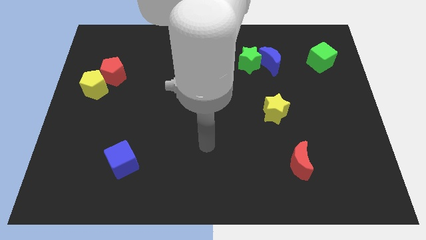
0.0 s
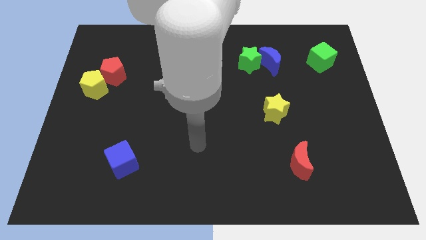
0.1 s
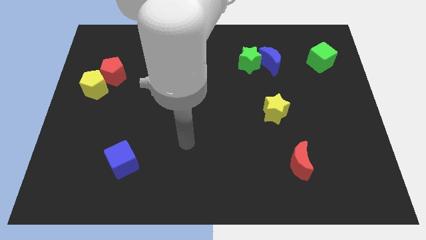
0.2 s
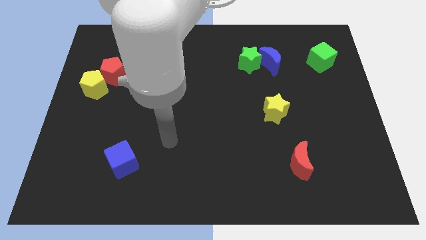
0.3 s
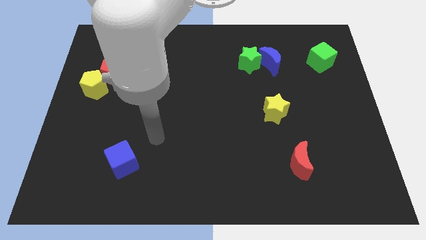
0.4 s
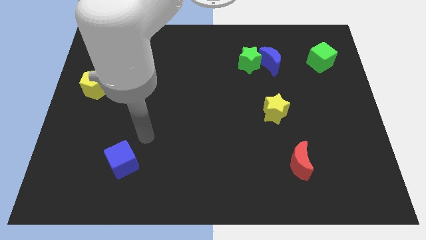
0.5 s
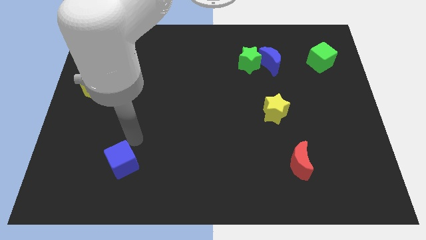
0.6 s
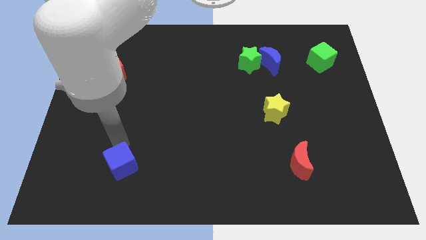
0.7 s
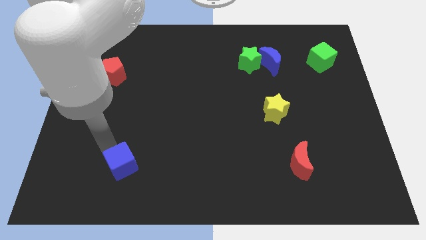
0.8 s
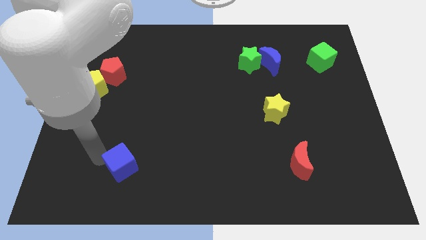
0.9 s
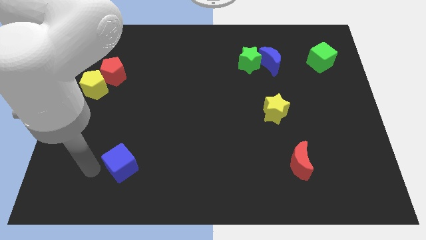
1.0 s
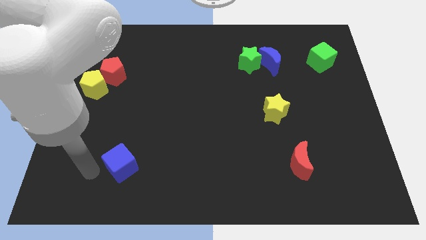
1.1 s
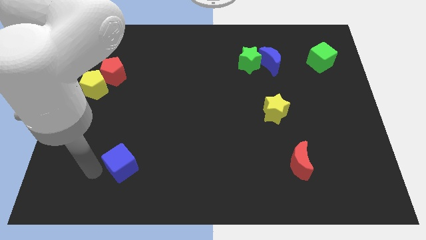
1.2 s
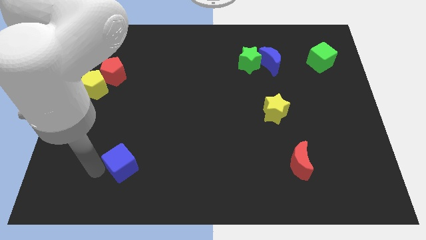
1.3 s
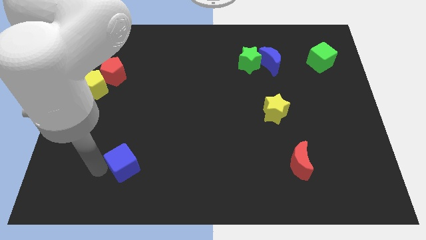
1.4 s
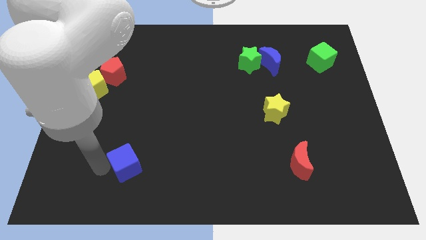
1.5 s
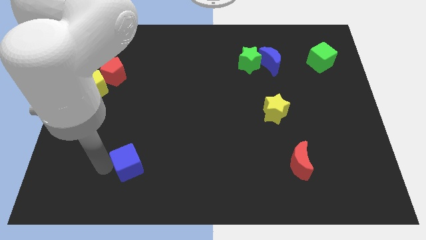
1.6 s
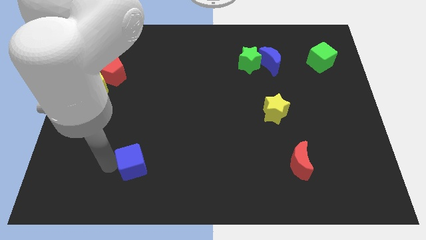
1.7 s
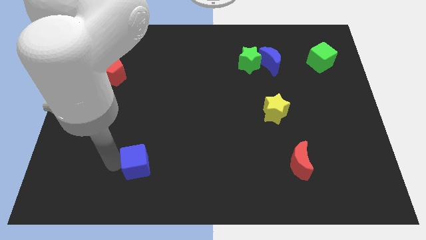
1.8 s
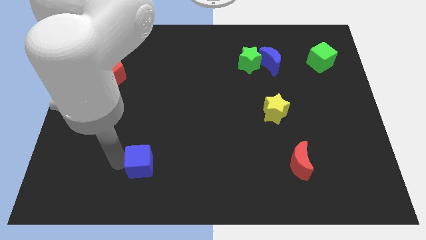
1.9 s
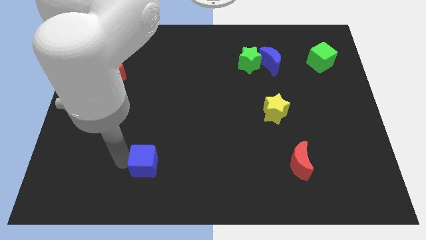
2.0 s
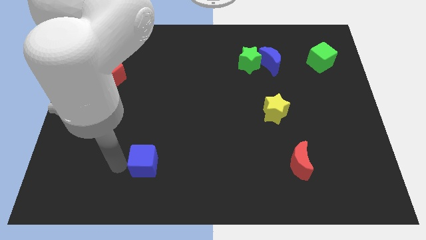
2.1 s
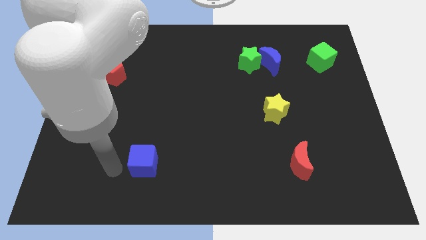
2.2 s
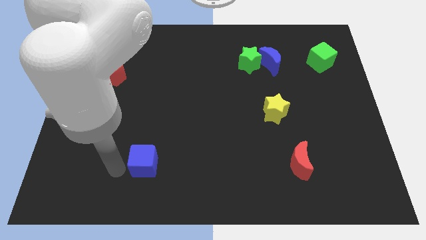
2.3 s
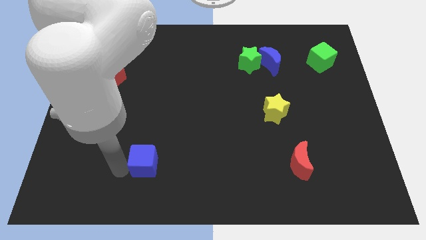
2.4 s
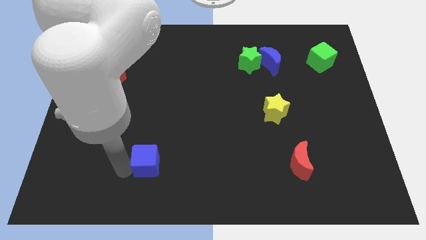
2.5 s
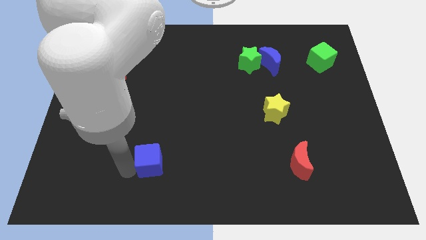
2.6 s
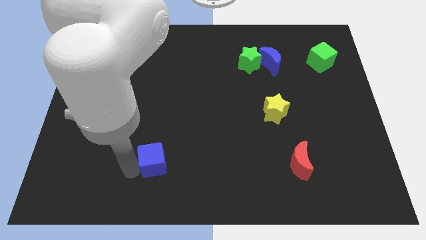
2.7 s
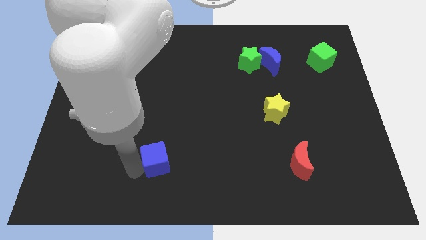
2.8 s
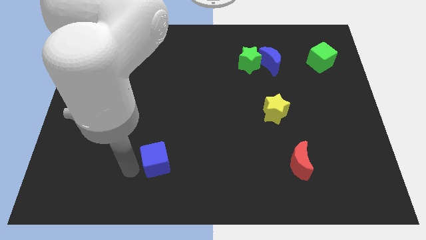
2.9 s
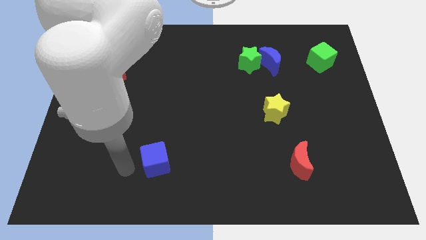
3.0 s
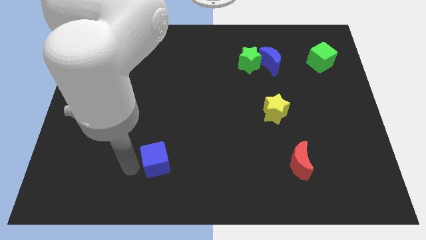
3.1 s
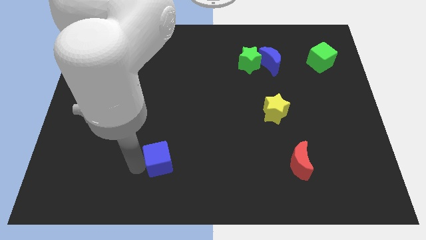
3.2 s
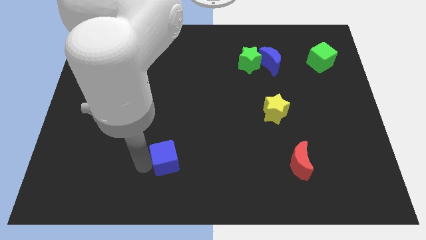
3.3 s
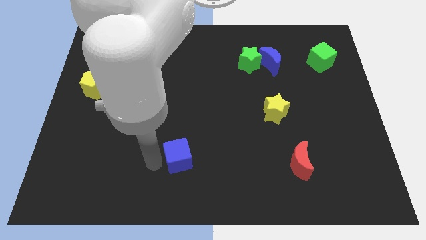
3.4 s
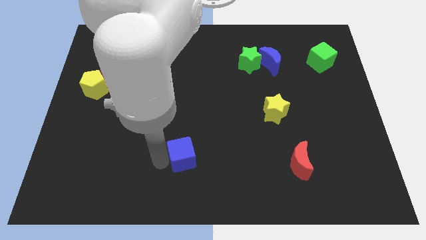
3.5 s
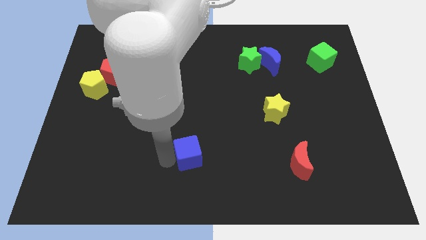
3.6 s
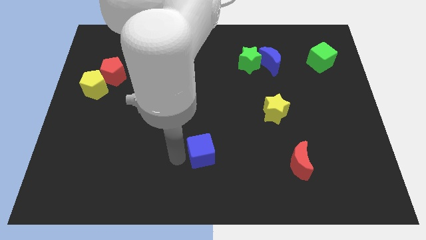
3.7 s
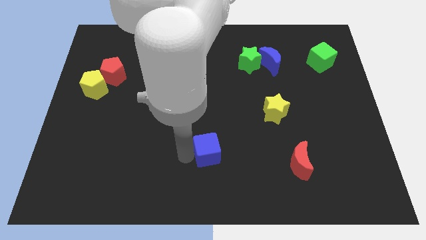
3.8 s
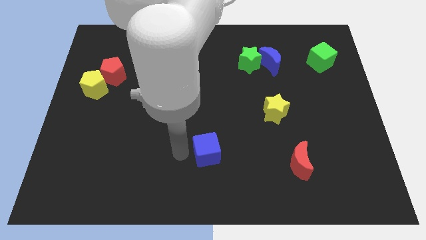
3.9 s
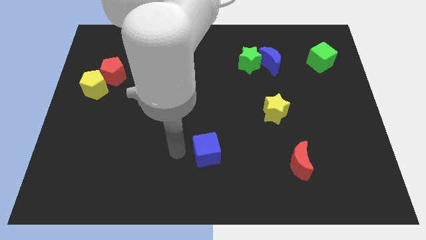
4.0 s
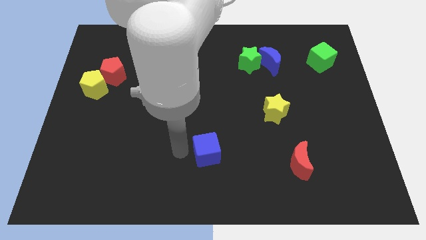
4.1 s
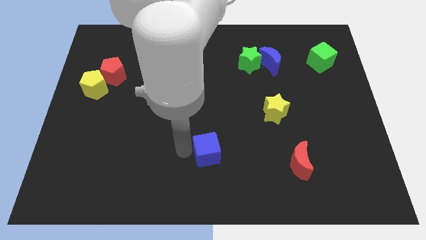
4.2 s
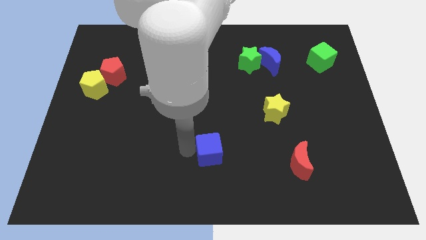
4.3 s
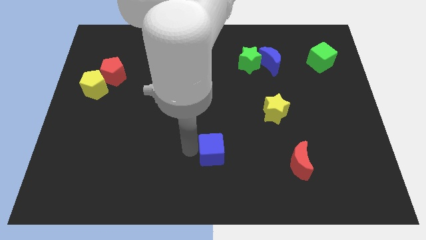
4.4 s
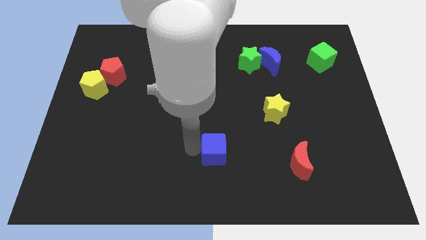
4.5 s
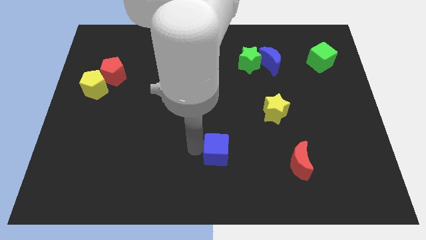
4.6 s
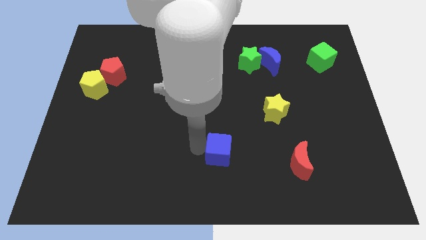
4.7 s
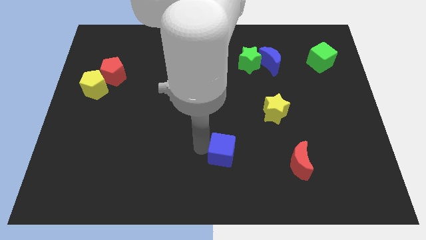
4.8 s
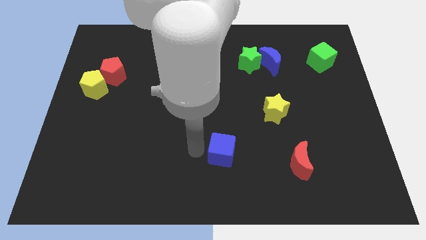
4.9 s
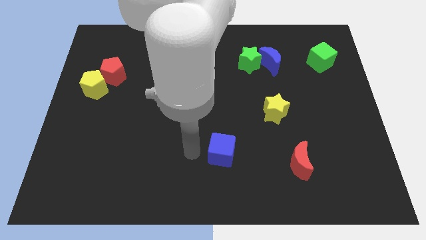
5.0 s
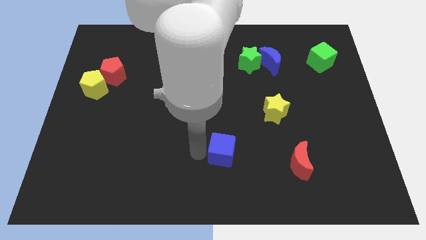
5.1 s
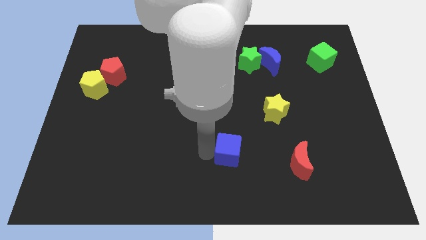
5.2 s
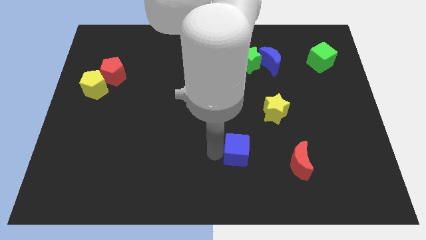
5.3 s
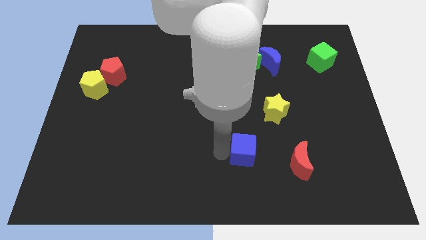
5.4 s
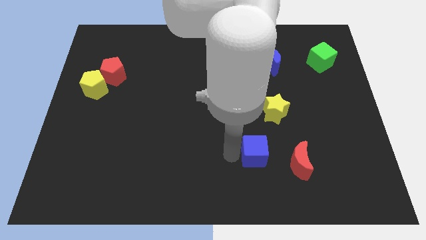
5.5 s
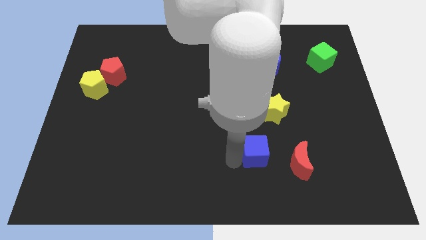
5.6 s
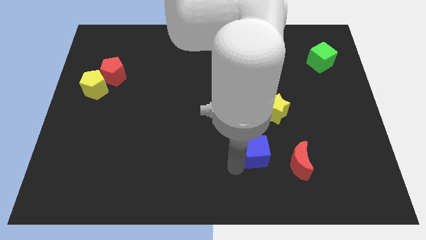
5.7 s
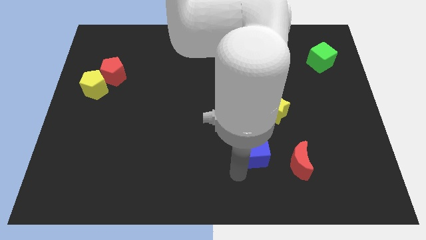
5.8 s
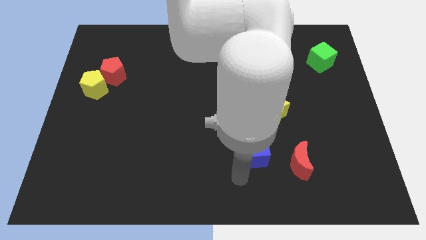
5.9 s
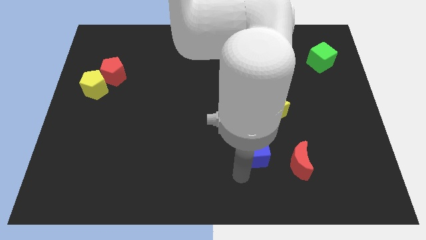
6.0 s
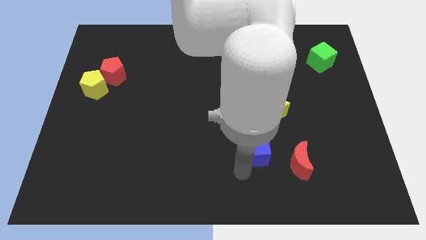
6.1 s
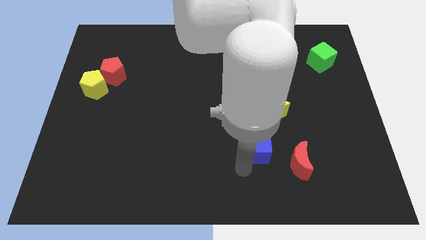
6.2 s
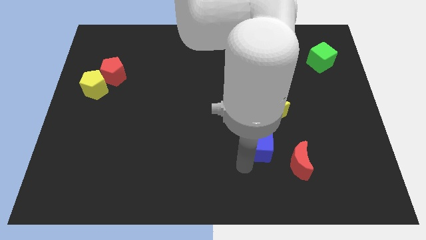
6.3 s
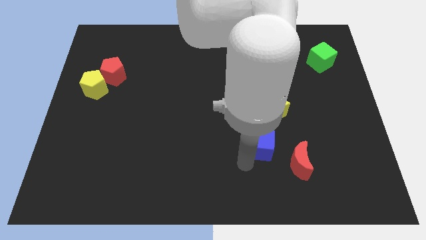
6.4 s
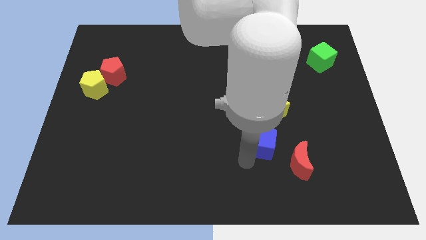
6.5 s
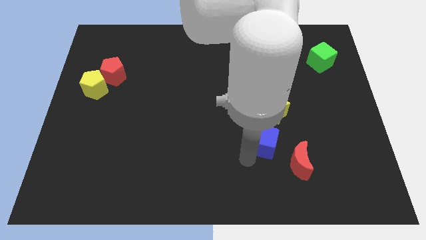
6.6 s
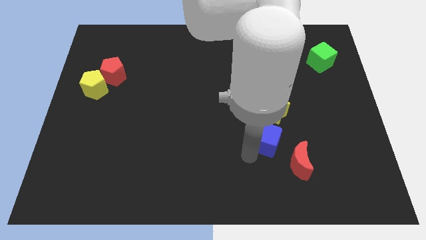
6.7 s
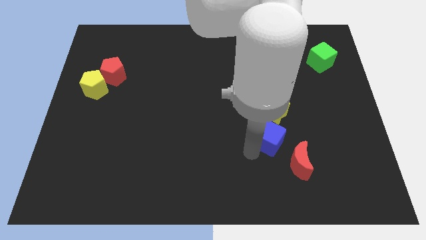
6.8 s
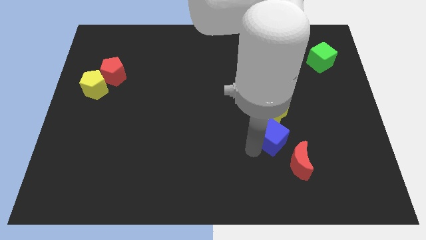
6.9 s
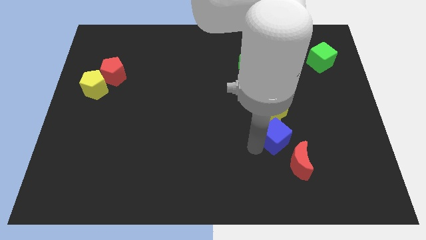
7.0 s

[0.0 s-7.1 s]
slide the blue cube above the red moon
